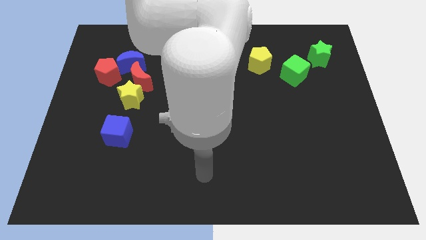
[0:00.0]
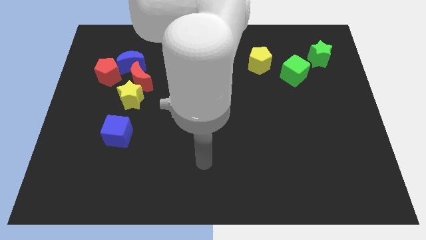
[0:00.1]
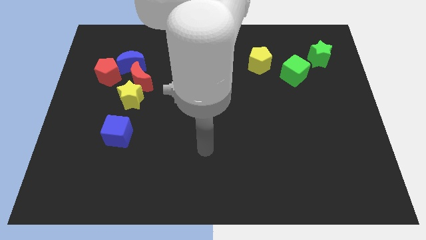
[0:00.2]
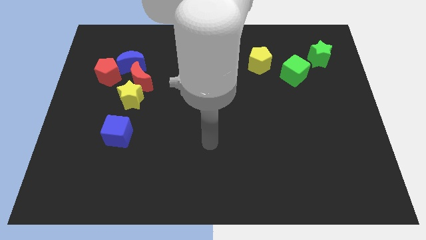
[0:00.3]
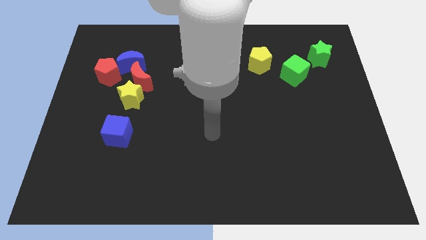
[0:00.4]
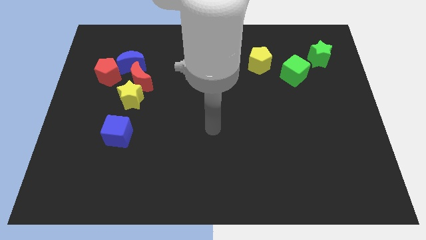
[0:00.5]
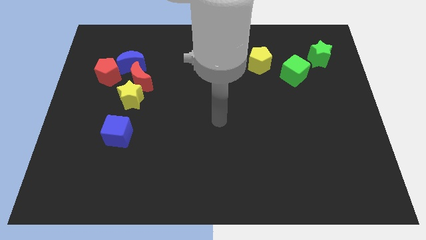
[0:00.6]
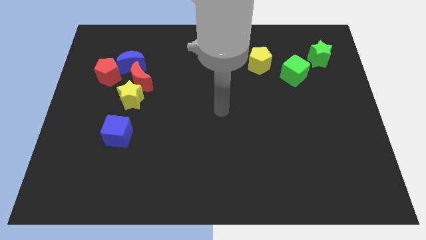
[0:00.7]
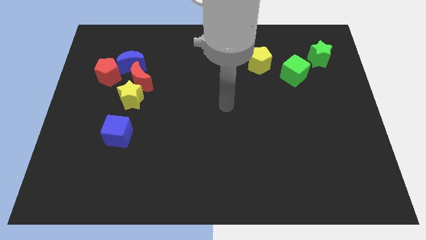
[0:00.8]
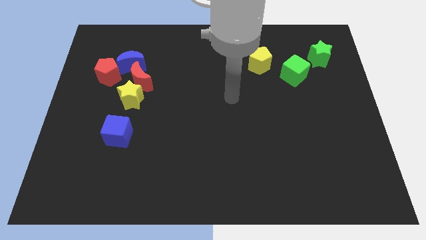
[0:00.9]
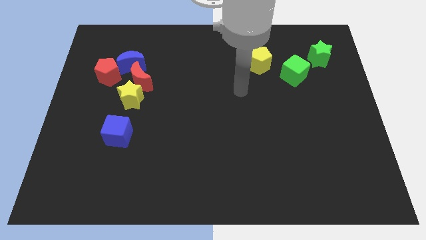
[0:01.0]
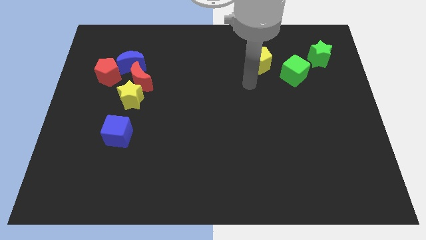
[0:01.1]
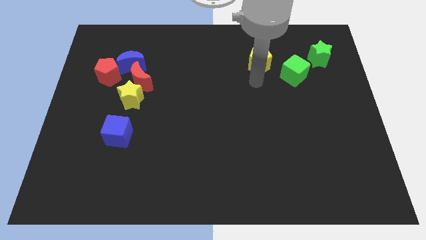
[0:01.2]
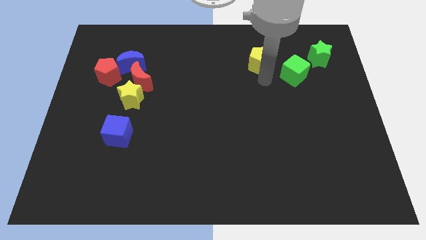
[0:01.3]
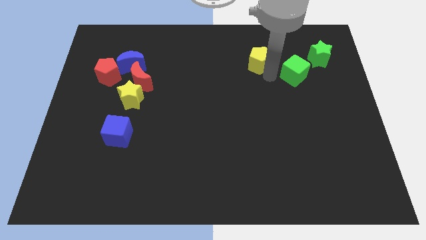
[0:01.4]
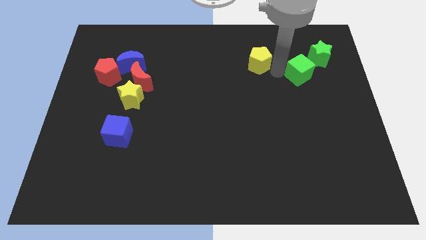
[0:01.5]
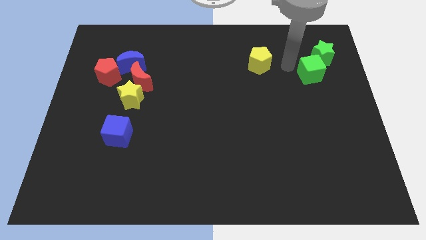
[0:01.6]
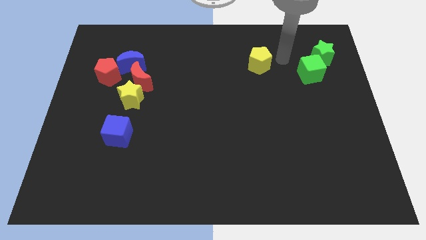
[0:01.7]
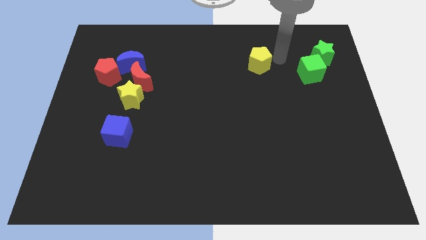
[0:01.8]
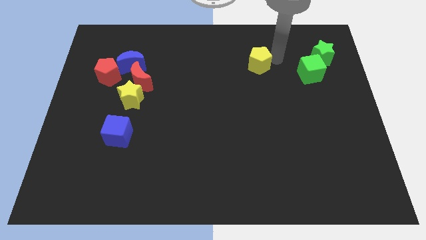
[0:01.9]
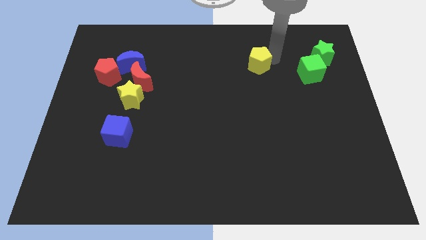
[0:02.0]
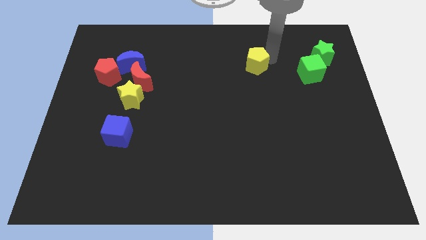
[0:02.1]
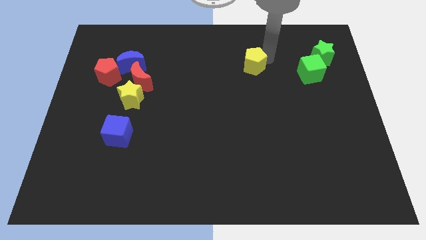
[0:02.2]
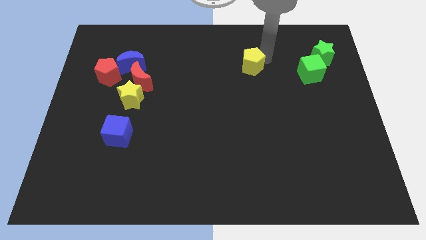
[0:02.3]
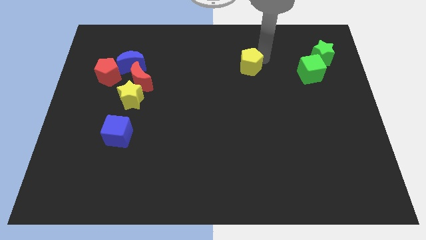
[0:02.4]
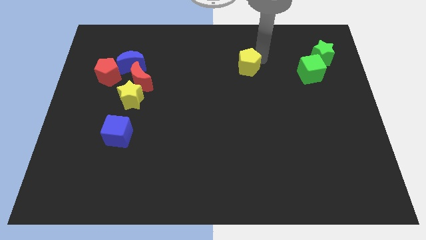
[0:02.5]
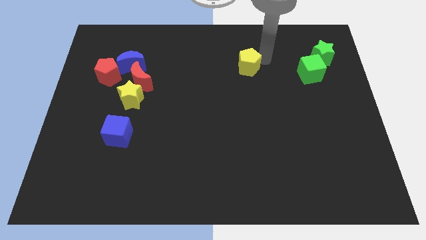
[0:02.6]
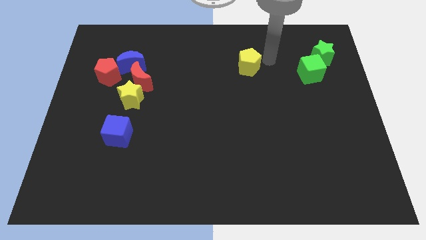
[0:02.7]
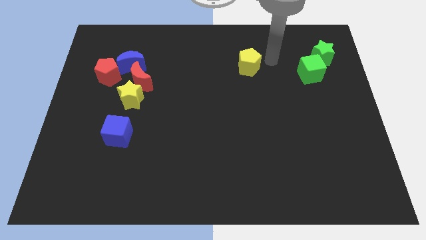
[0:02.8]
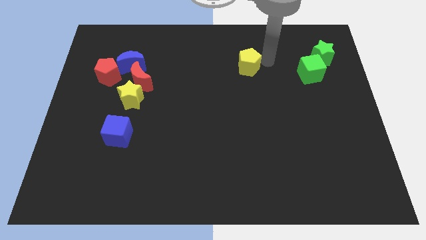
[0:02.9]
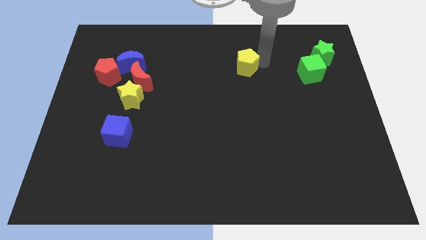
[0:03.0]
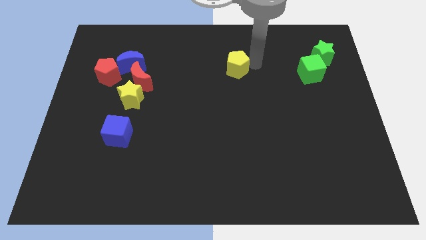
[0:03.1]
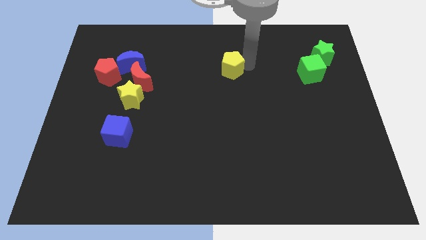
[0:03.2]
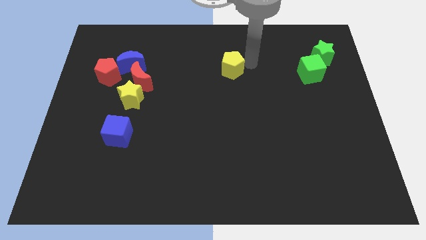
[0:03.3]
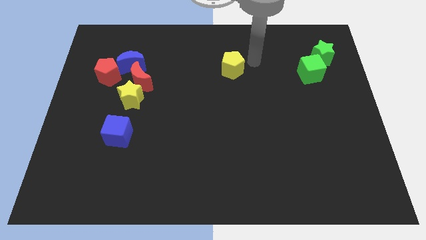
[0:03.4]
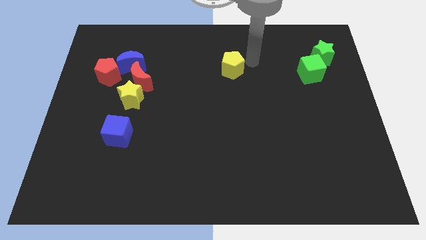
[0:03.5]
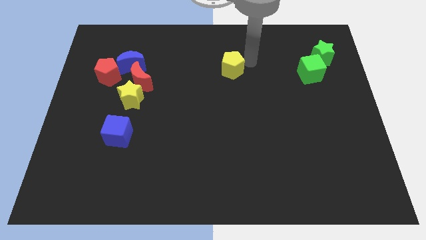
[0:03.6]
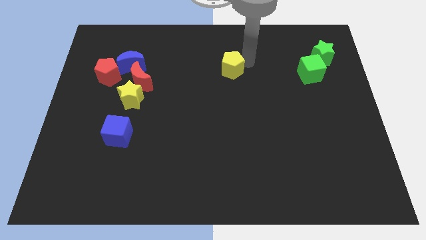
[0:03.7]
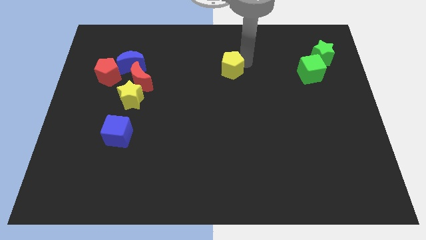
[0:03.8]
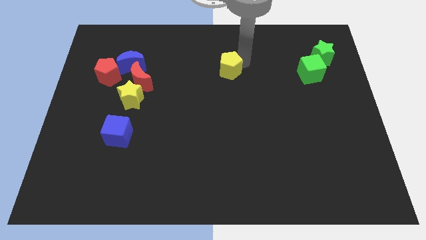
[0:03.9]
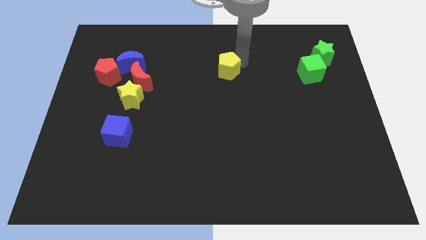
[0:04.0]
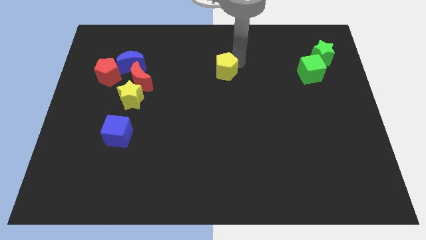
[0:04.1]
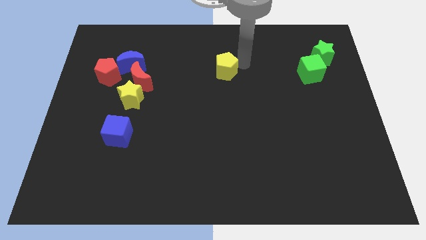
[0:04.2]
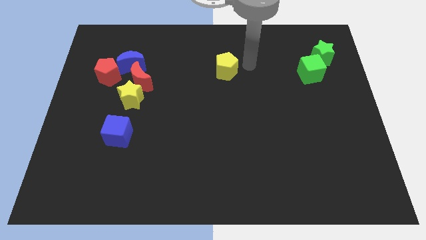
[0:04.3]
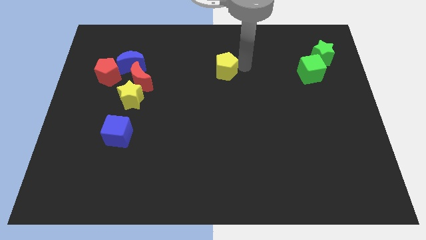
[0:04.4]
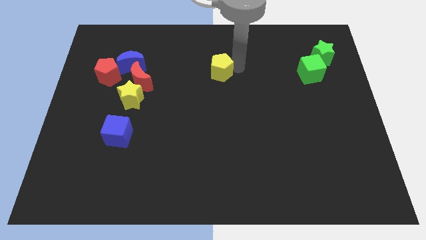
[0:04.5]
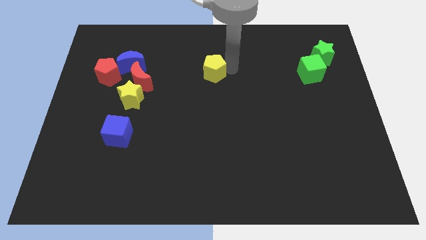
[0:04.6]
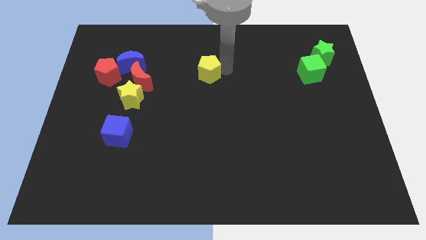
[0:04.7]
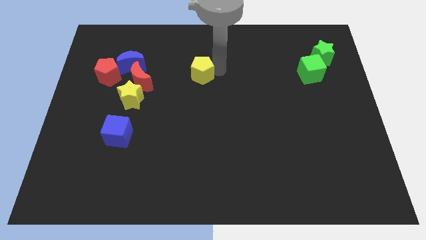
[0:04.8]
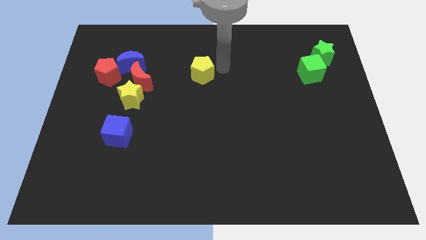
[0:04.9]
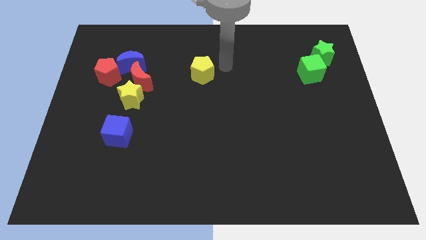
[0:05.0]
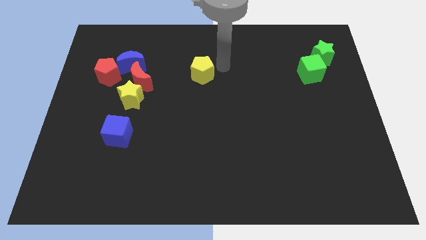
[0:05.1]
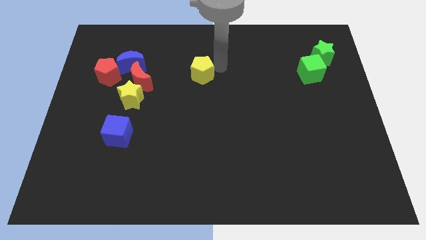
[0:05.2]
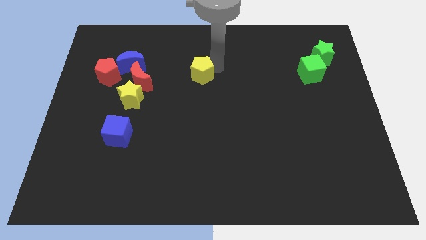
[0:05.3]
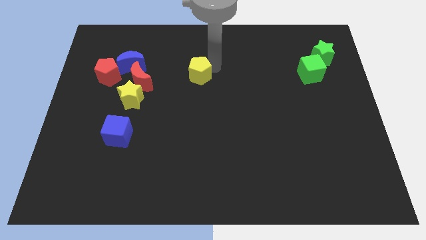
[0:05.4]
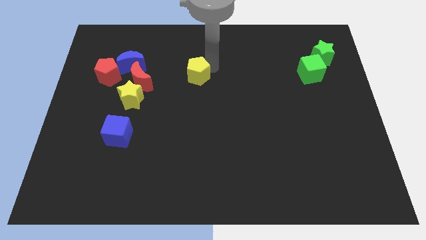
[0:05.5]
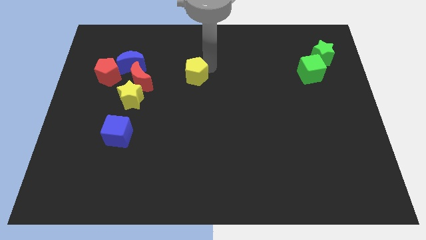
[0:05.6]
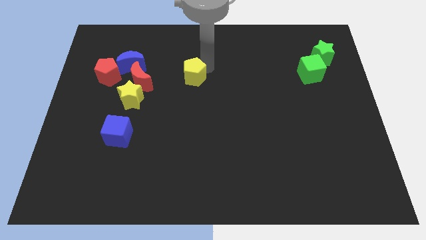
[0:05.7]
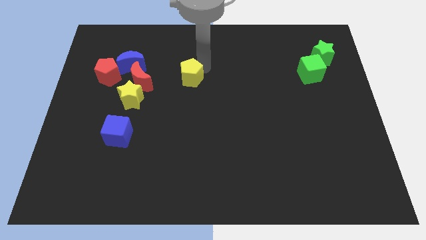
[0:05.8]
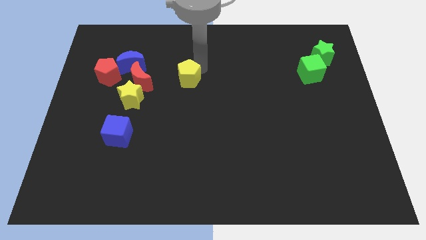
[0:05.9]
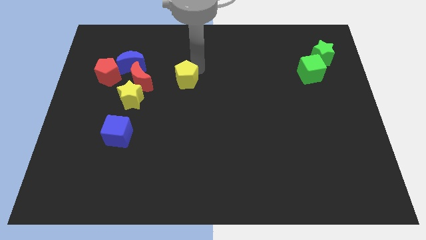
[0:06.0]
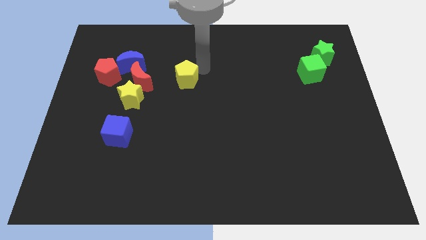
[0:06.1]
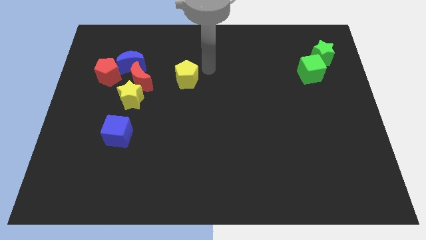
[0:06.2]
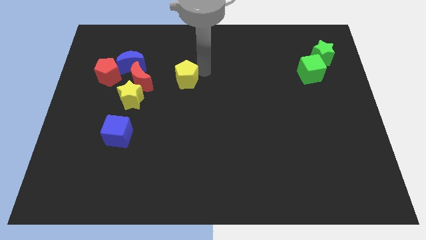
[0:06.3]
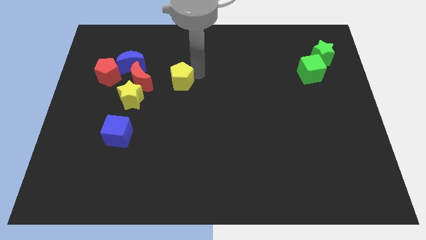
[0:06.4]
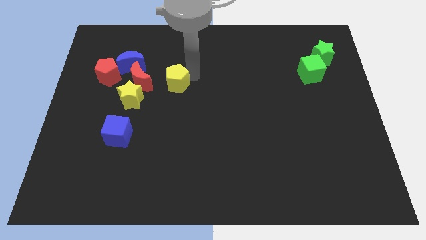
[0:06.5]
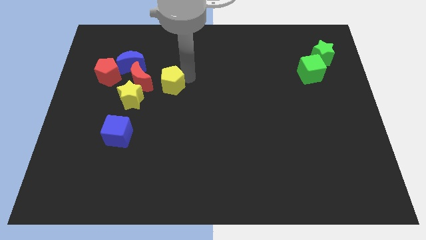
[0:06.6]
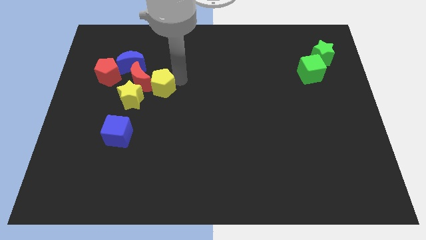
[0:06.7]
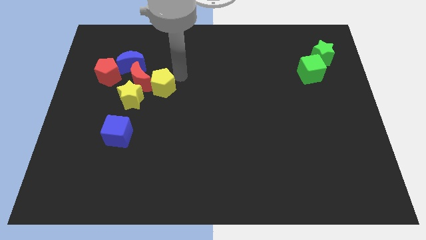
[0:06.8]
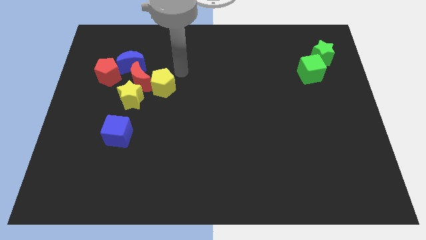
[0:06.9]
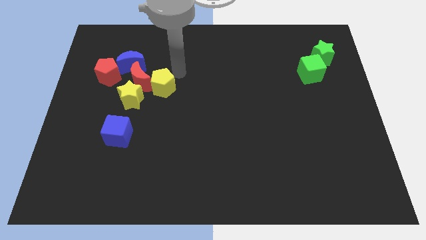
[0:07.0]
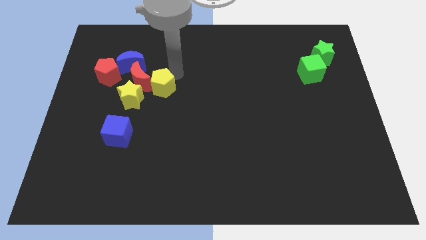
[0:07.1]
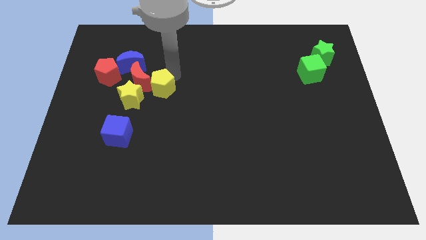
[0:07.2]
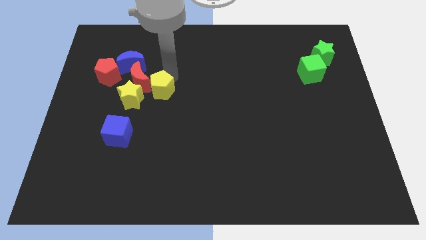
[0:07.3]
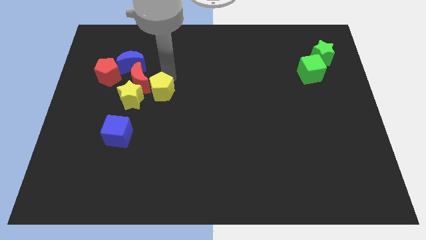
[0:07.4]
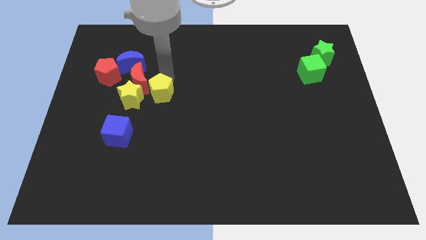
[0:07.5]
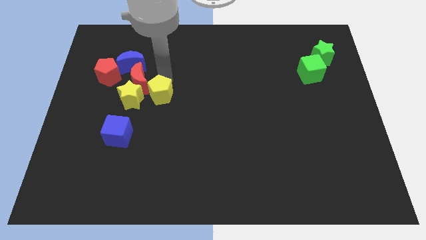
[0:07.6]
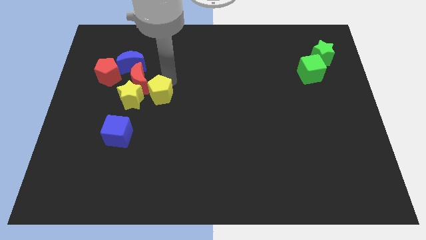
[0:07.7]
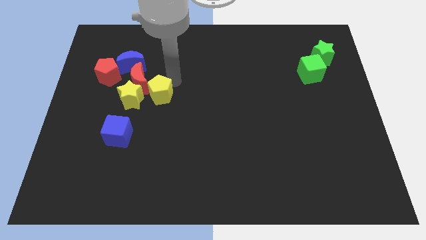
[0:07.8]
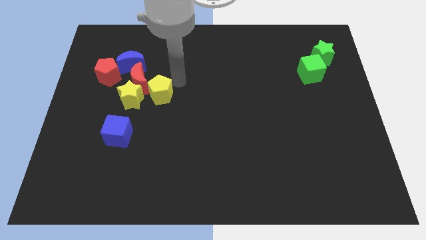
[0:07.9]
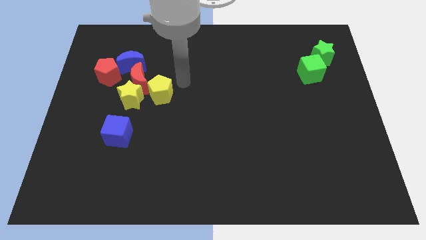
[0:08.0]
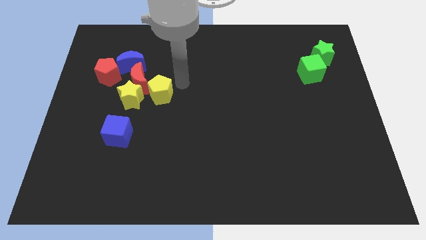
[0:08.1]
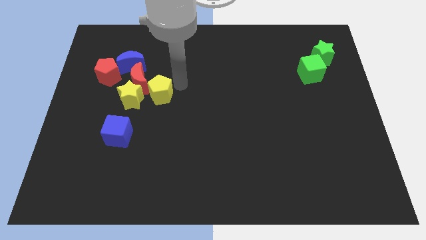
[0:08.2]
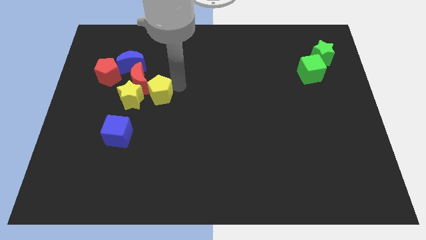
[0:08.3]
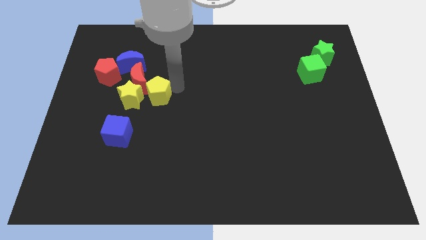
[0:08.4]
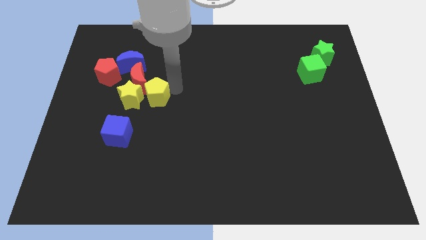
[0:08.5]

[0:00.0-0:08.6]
move the yellow pentagon close to the yellow star
